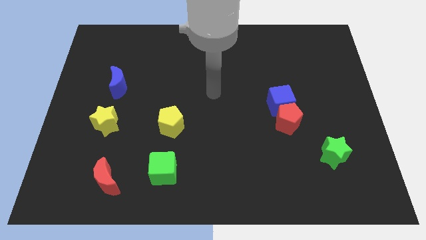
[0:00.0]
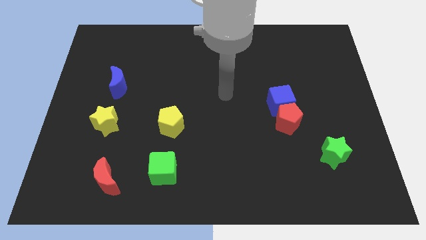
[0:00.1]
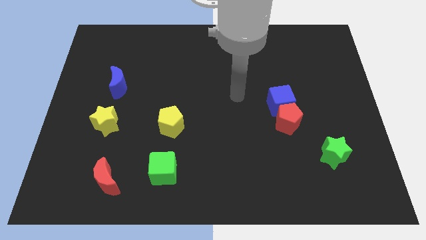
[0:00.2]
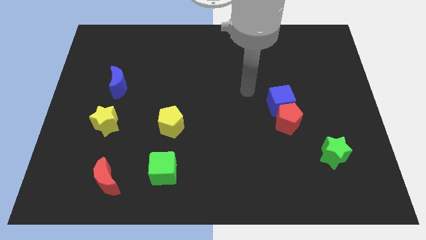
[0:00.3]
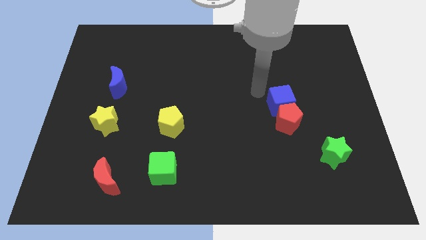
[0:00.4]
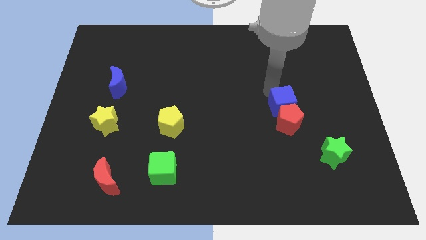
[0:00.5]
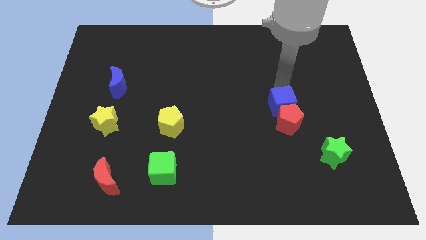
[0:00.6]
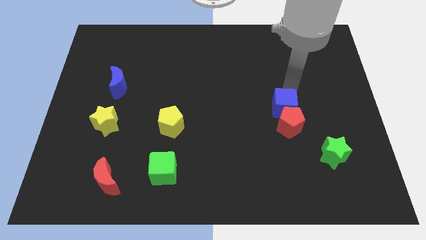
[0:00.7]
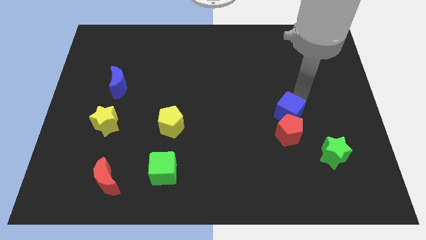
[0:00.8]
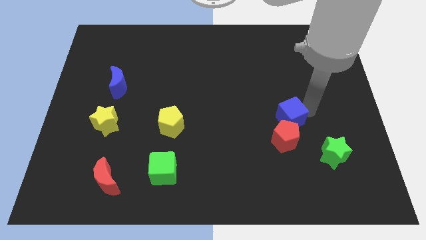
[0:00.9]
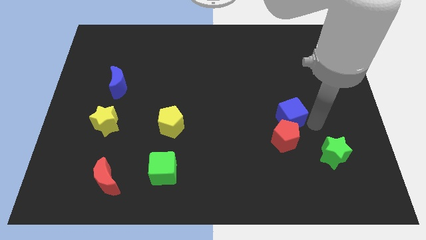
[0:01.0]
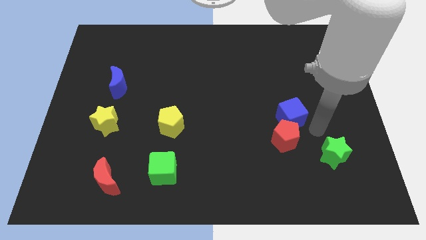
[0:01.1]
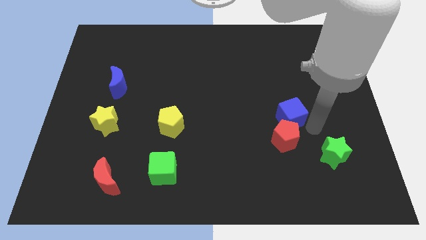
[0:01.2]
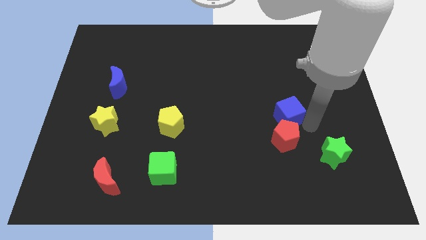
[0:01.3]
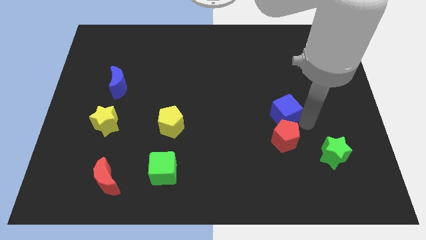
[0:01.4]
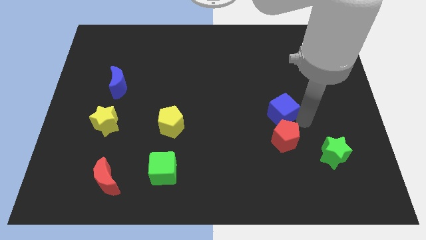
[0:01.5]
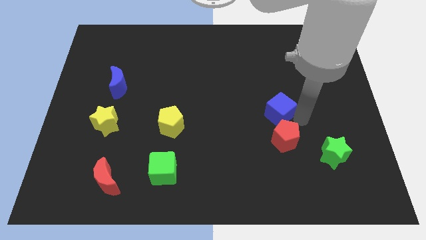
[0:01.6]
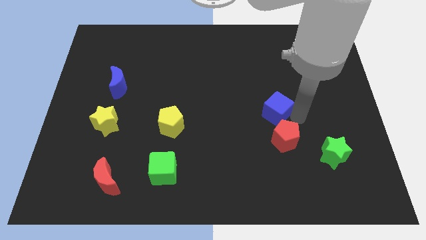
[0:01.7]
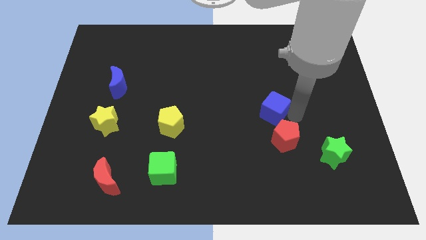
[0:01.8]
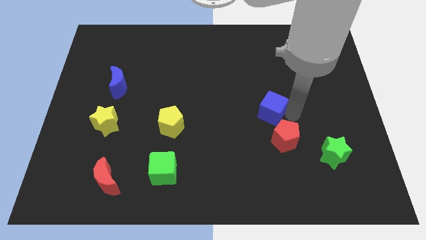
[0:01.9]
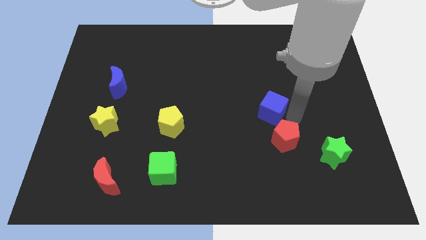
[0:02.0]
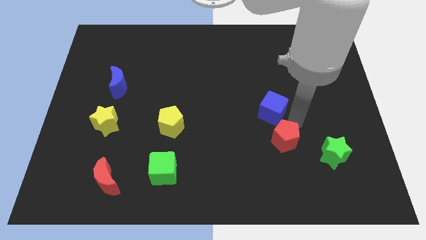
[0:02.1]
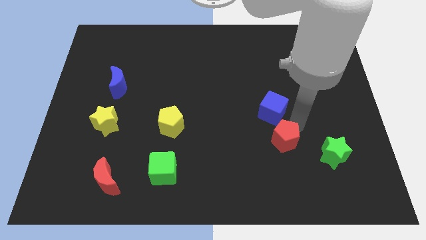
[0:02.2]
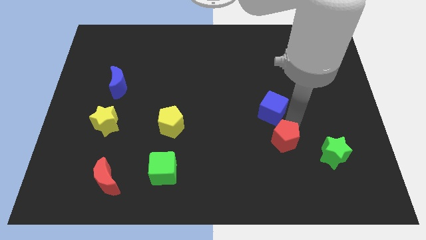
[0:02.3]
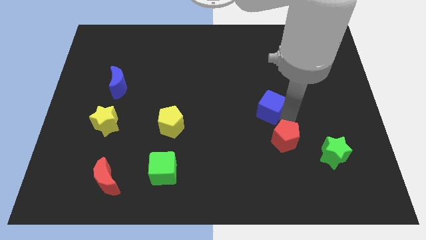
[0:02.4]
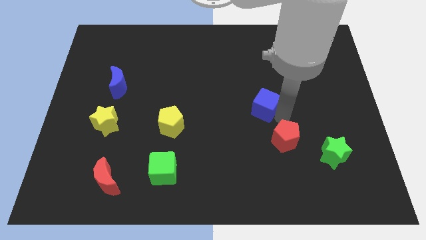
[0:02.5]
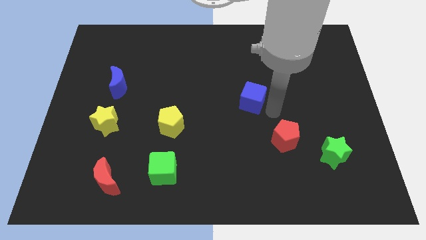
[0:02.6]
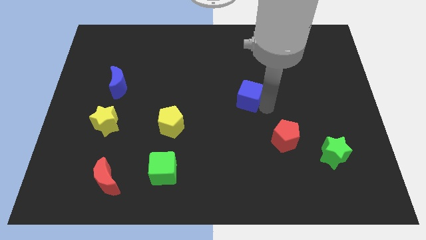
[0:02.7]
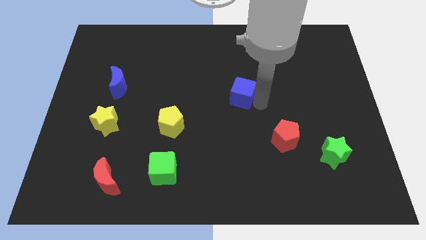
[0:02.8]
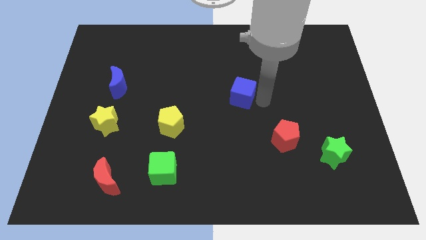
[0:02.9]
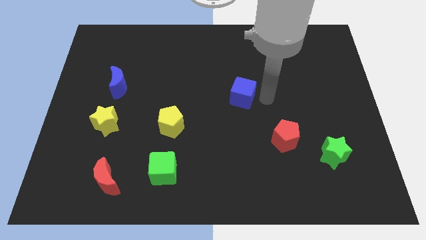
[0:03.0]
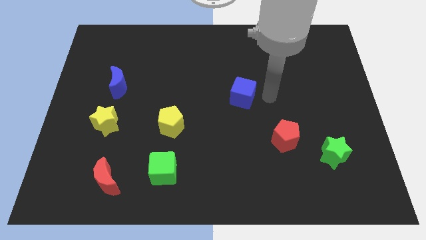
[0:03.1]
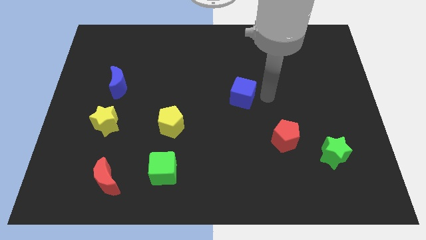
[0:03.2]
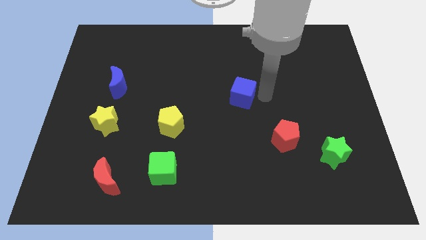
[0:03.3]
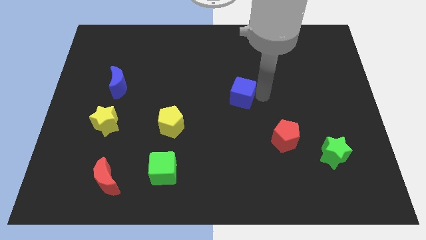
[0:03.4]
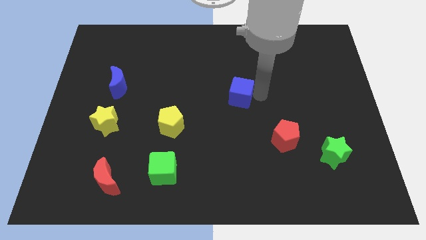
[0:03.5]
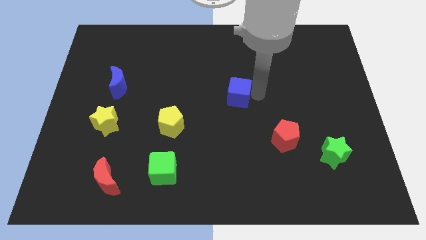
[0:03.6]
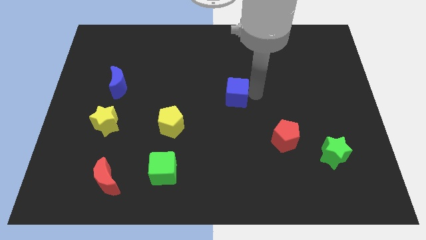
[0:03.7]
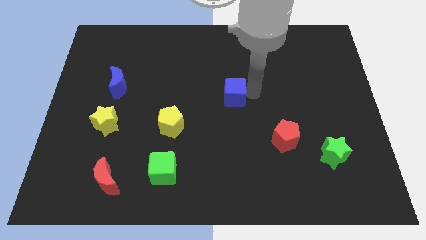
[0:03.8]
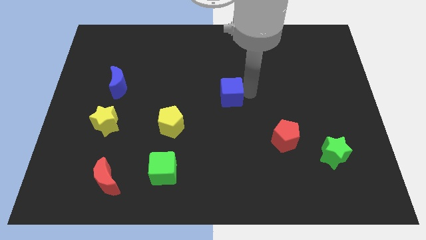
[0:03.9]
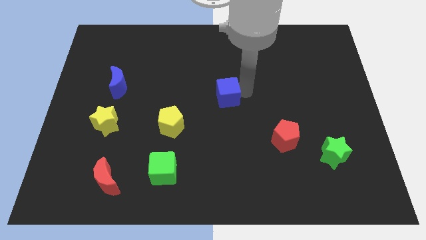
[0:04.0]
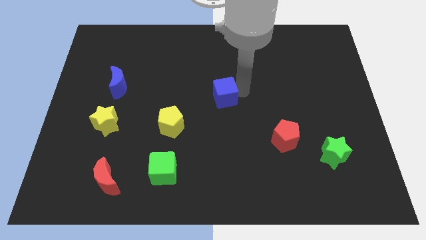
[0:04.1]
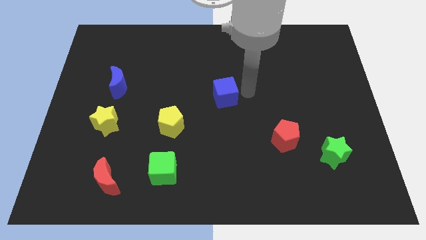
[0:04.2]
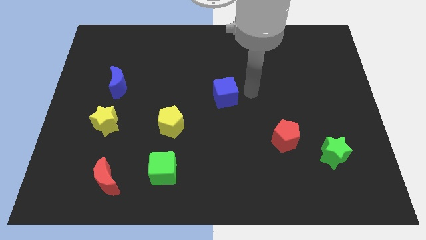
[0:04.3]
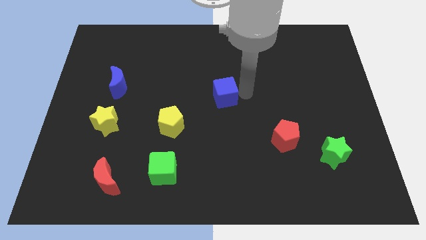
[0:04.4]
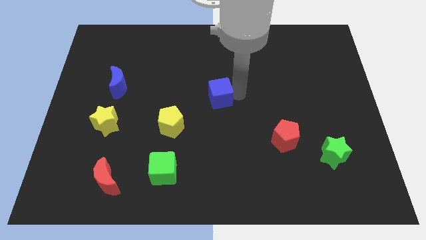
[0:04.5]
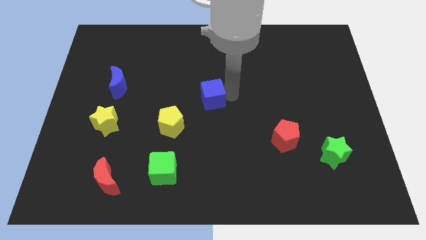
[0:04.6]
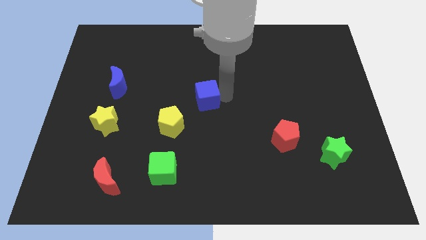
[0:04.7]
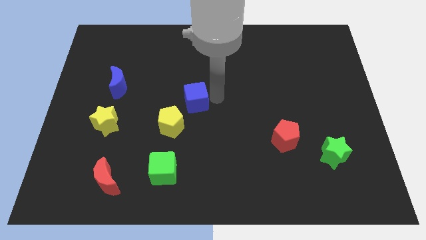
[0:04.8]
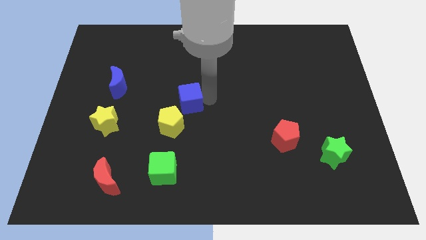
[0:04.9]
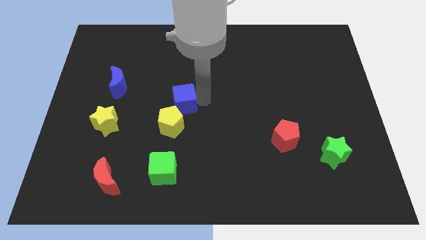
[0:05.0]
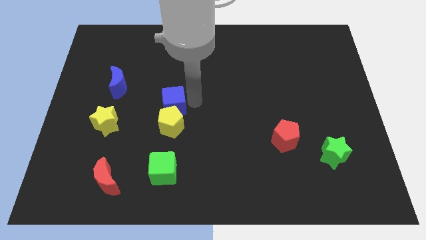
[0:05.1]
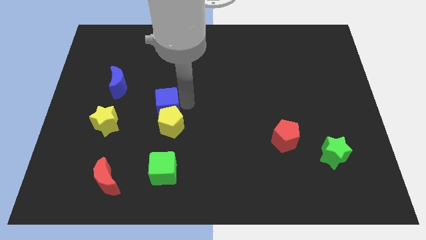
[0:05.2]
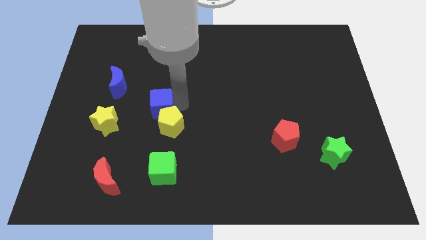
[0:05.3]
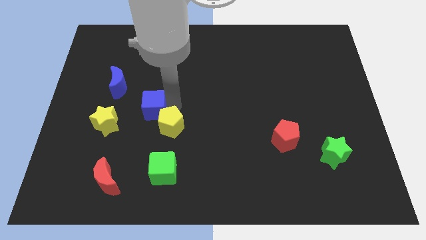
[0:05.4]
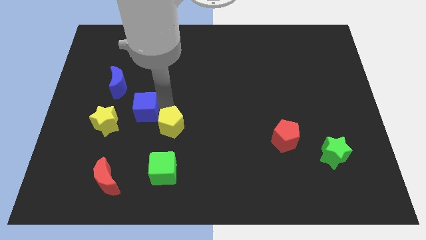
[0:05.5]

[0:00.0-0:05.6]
push the blue cube to the top right of the yellow star

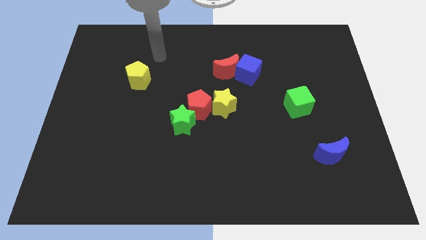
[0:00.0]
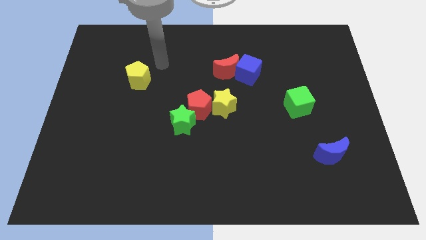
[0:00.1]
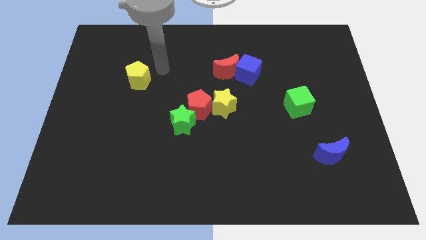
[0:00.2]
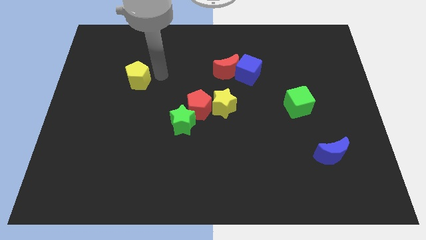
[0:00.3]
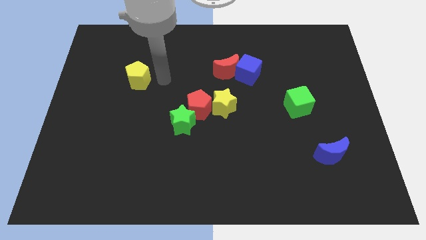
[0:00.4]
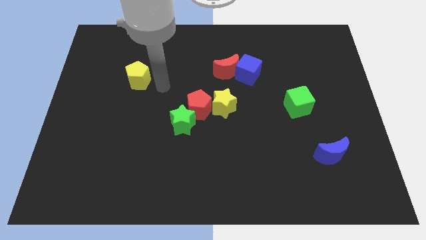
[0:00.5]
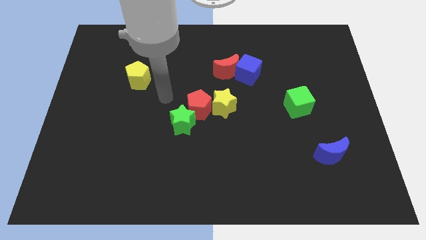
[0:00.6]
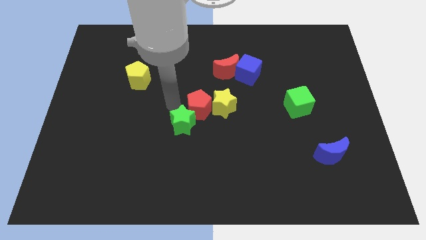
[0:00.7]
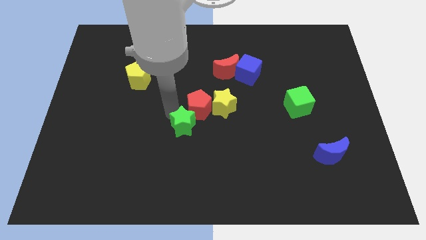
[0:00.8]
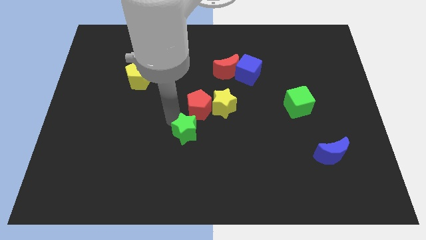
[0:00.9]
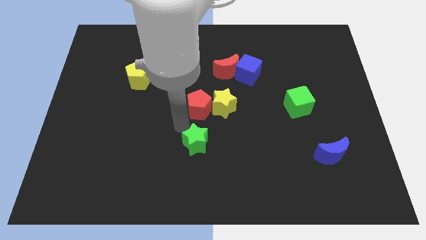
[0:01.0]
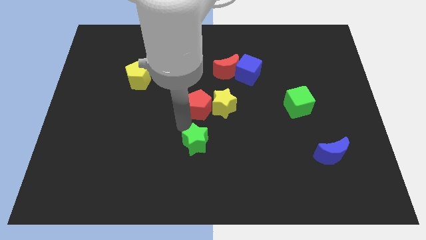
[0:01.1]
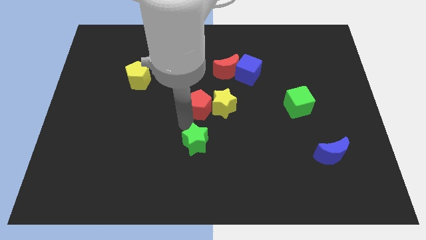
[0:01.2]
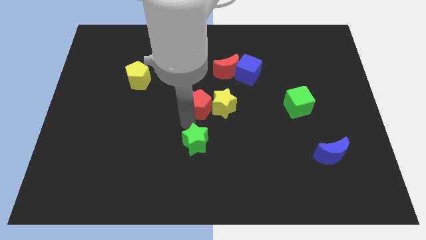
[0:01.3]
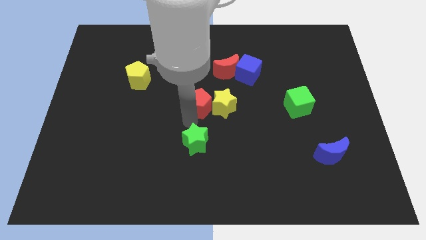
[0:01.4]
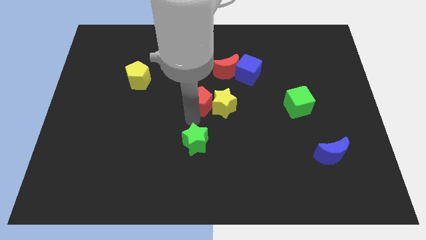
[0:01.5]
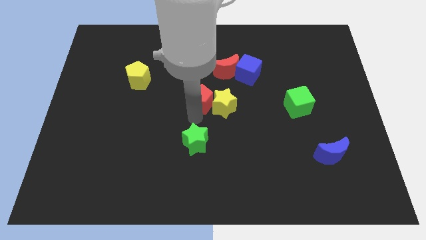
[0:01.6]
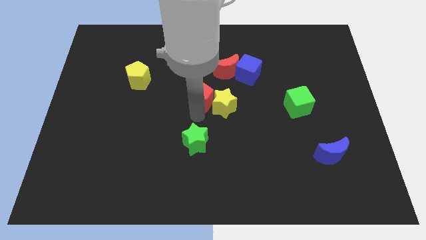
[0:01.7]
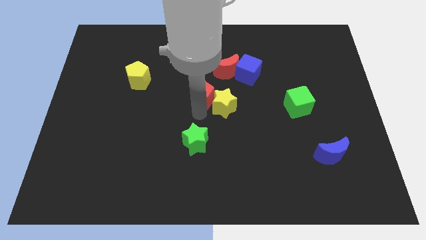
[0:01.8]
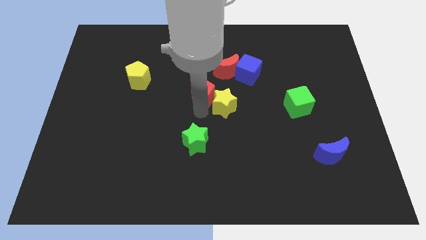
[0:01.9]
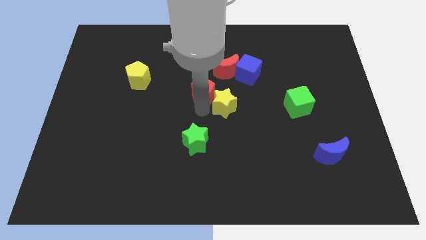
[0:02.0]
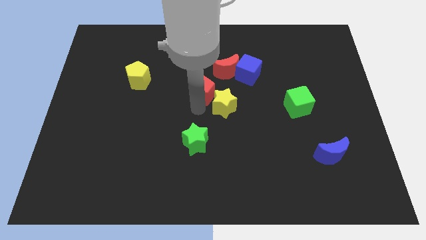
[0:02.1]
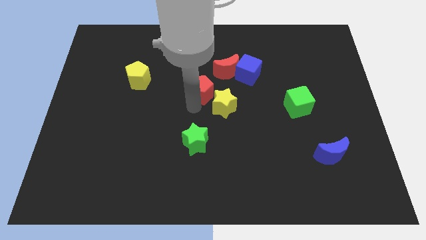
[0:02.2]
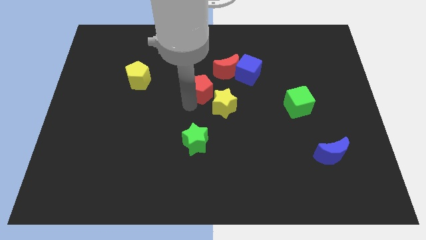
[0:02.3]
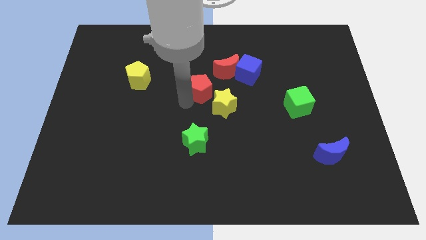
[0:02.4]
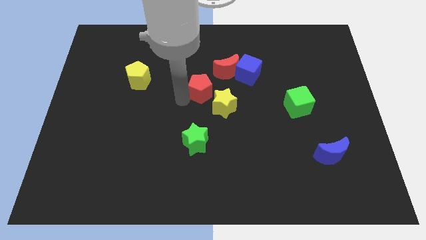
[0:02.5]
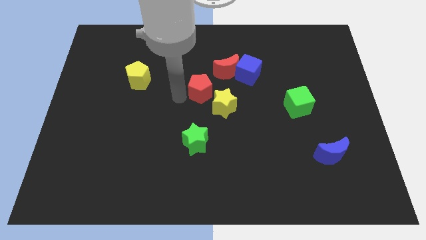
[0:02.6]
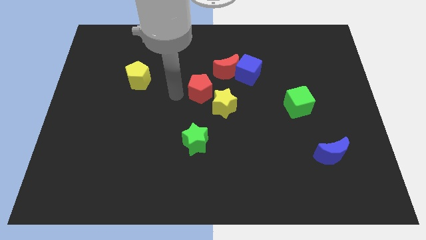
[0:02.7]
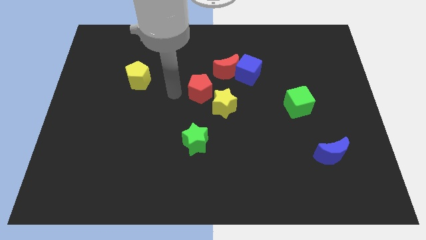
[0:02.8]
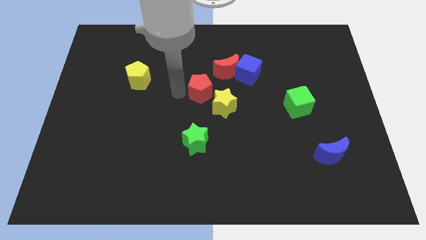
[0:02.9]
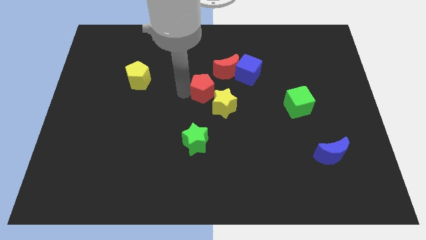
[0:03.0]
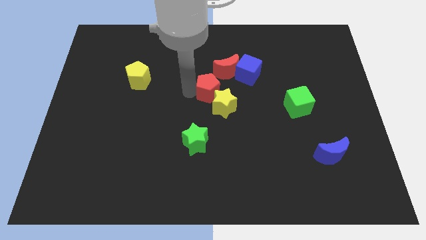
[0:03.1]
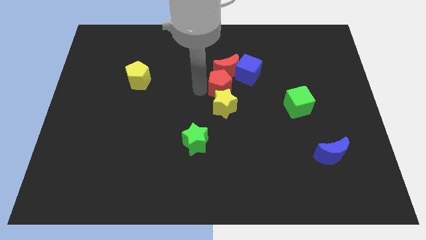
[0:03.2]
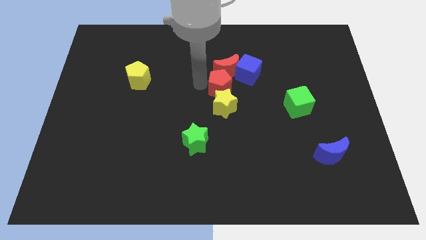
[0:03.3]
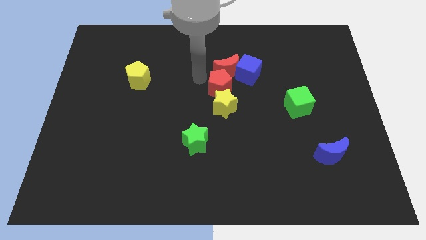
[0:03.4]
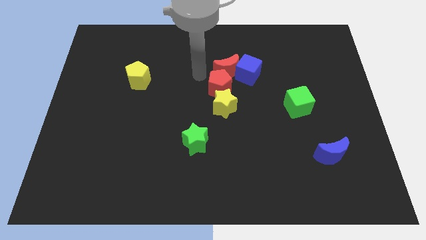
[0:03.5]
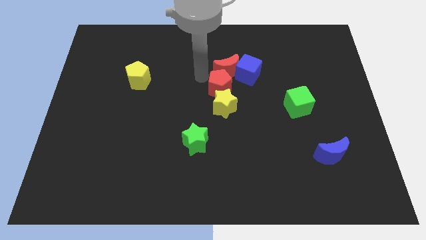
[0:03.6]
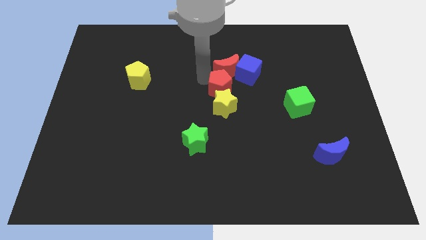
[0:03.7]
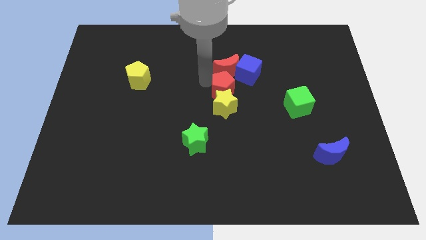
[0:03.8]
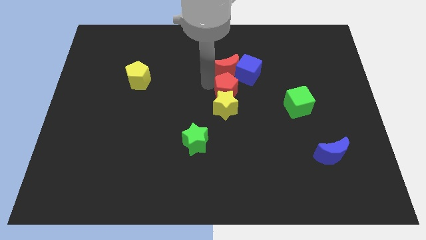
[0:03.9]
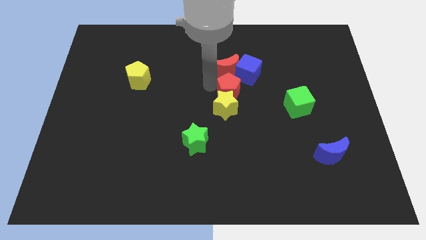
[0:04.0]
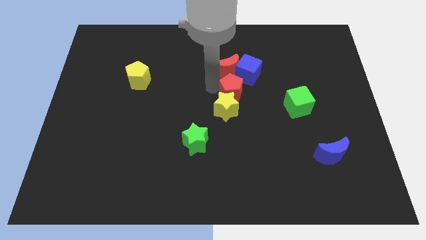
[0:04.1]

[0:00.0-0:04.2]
push the red pentagon below the blue cube
